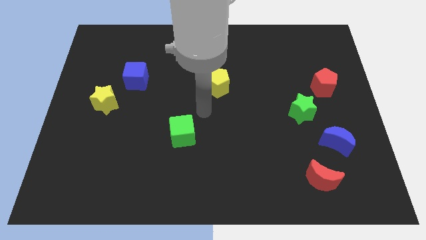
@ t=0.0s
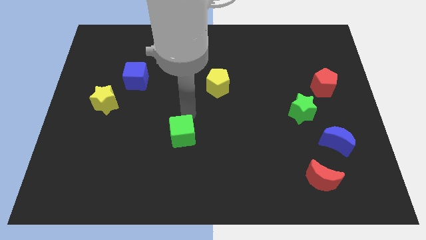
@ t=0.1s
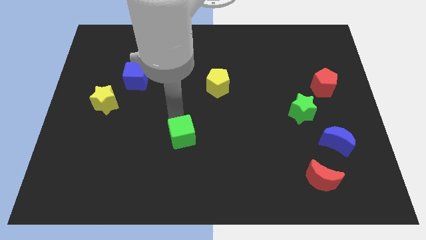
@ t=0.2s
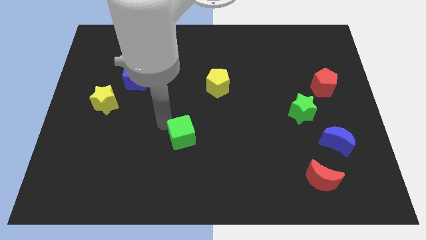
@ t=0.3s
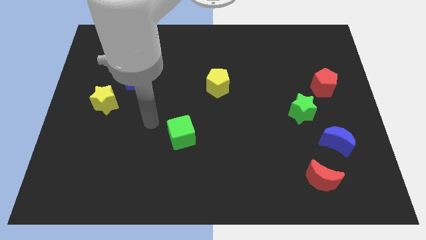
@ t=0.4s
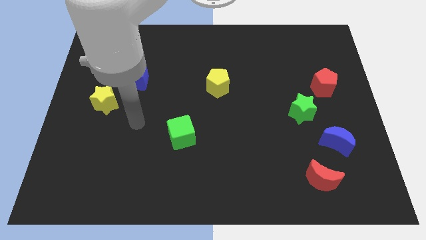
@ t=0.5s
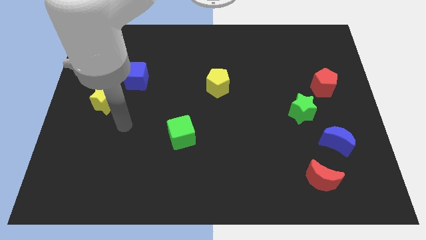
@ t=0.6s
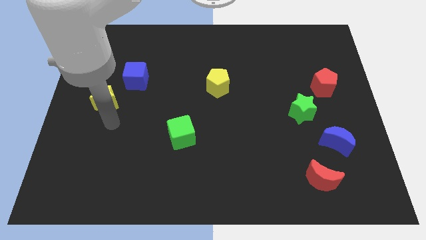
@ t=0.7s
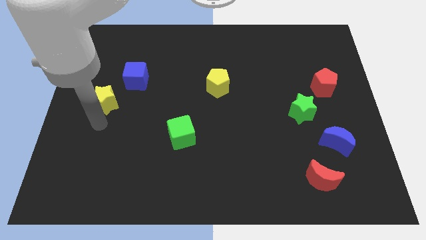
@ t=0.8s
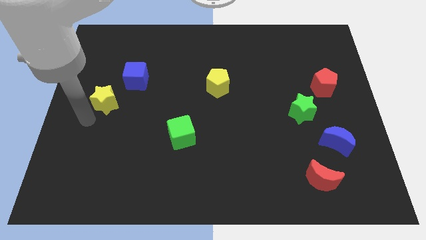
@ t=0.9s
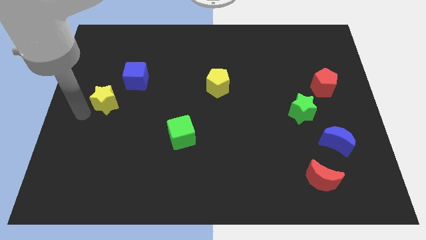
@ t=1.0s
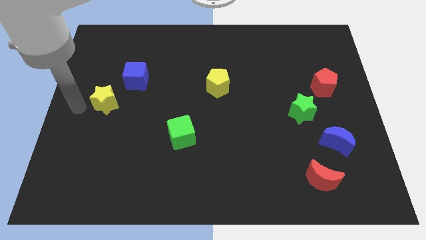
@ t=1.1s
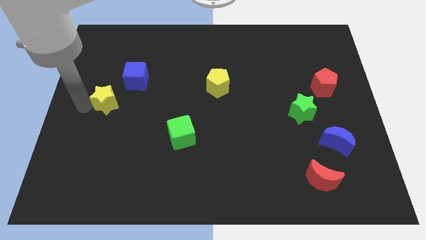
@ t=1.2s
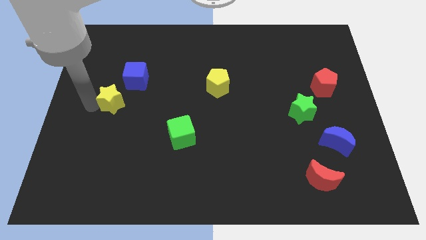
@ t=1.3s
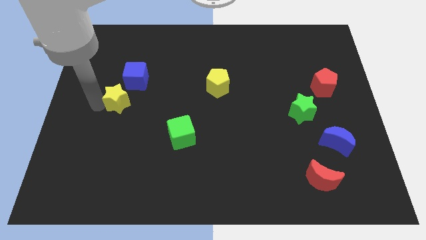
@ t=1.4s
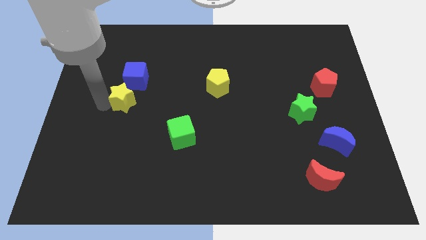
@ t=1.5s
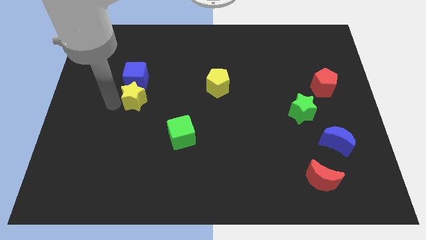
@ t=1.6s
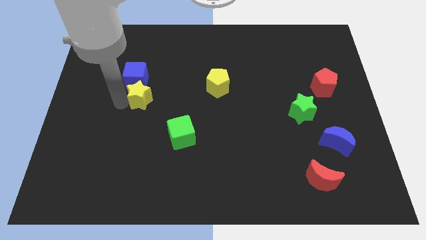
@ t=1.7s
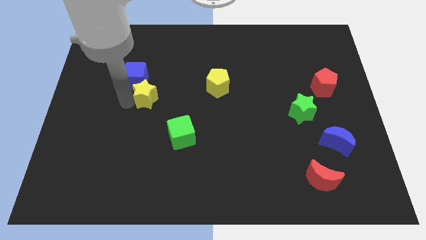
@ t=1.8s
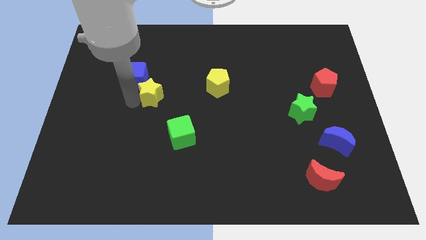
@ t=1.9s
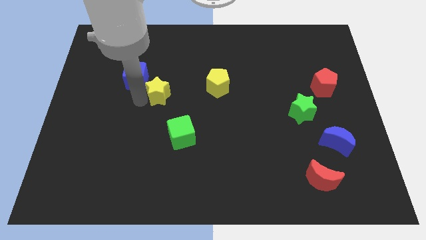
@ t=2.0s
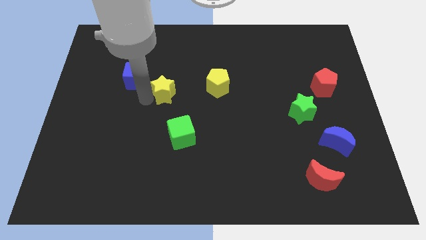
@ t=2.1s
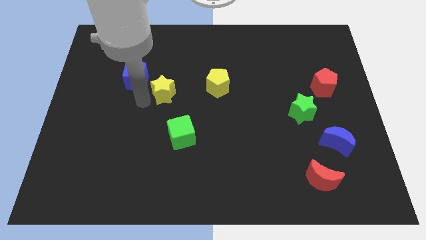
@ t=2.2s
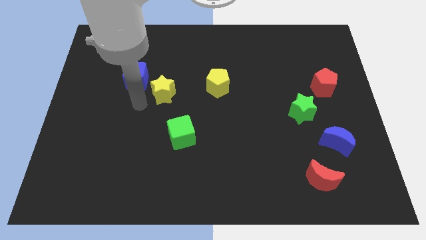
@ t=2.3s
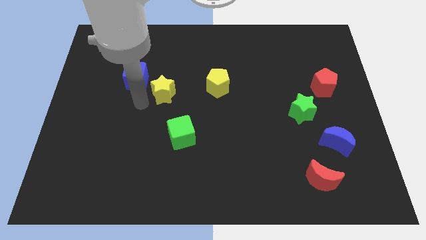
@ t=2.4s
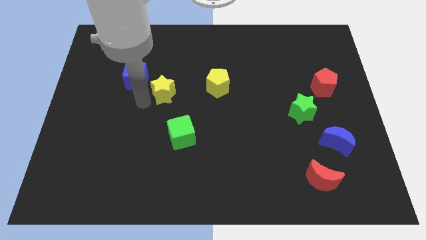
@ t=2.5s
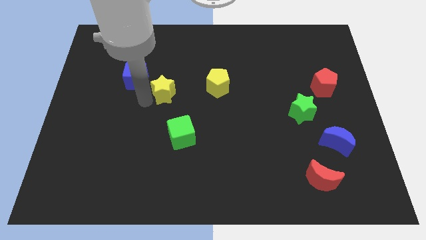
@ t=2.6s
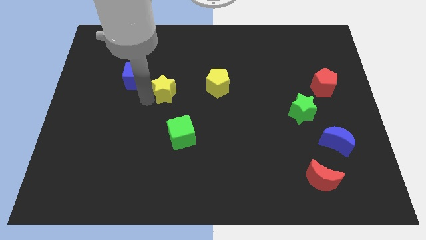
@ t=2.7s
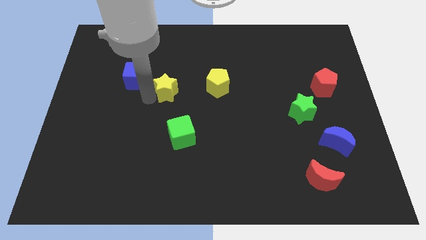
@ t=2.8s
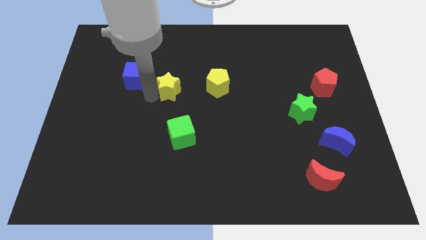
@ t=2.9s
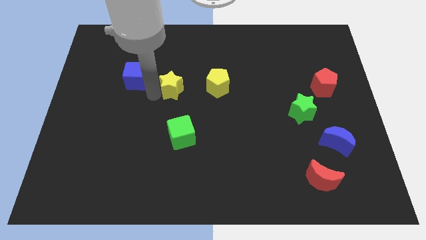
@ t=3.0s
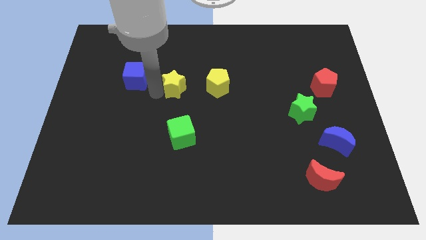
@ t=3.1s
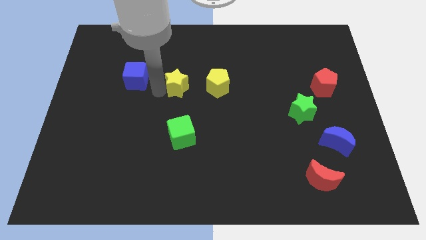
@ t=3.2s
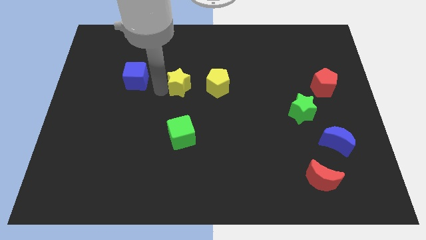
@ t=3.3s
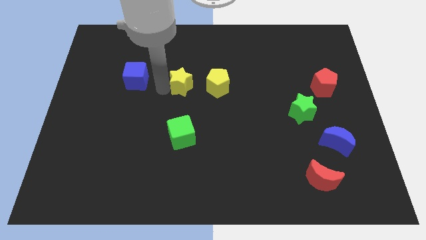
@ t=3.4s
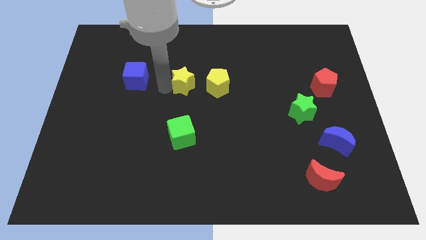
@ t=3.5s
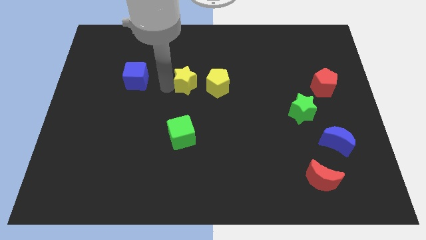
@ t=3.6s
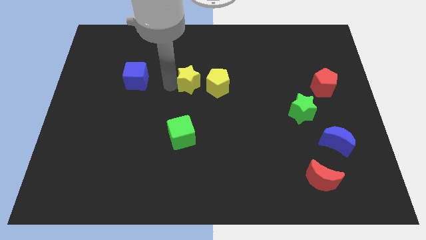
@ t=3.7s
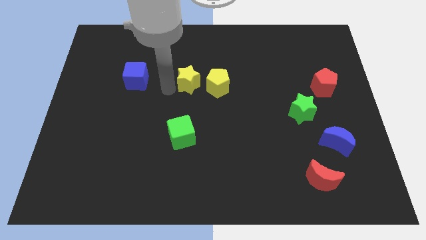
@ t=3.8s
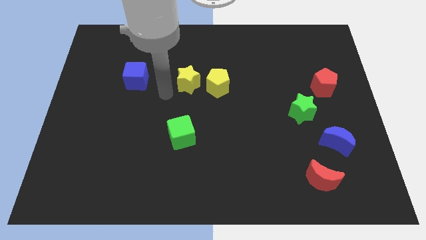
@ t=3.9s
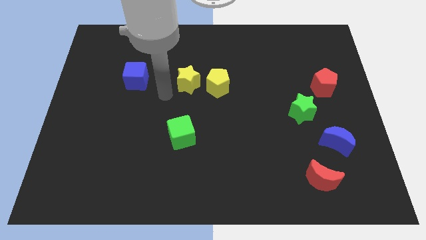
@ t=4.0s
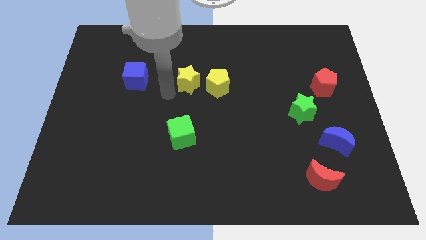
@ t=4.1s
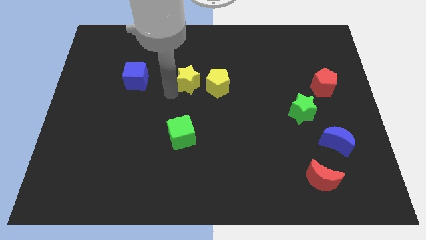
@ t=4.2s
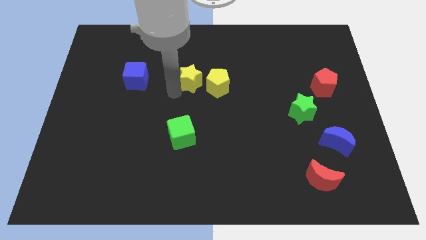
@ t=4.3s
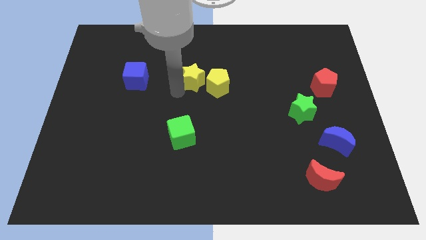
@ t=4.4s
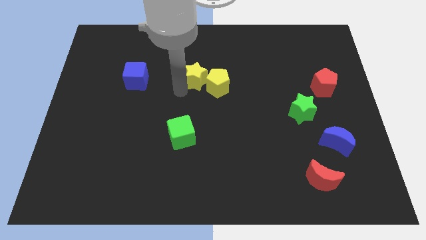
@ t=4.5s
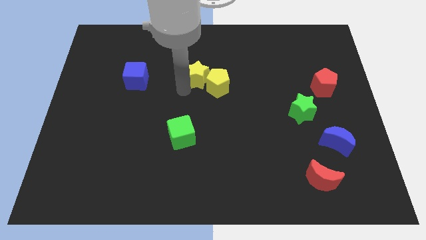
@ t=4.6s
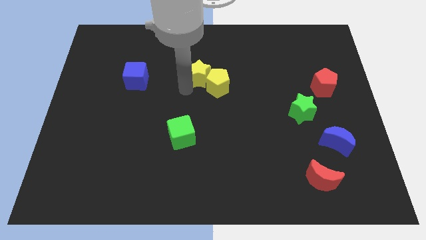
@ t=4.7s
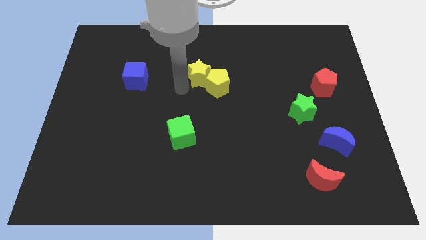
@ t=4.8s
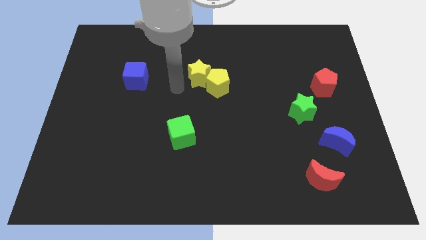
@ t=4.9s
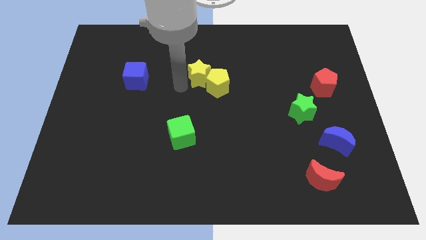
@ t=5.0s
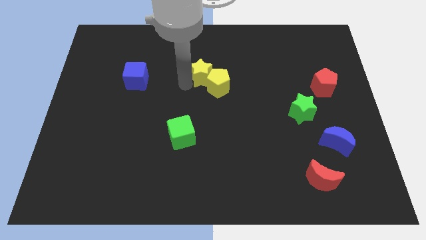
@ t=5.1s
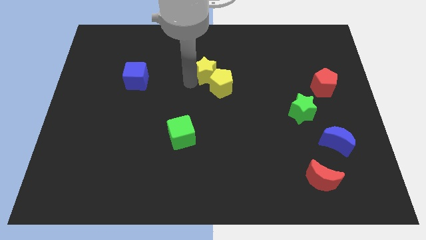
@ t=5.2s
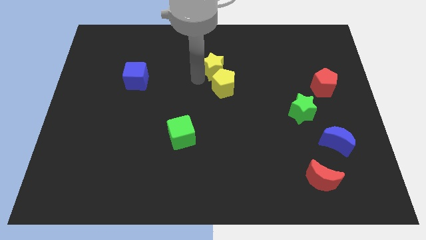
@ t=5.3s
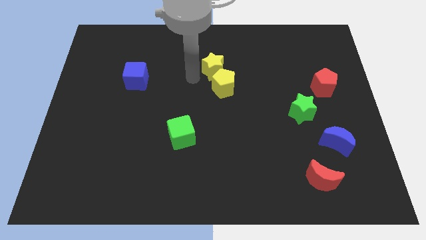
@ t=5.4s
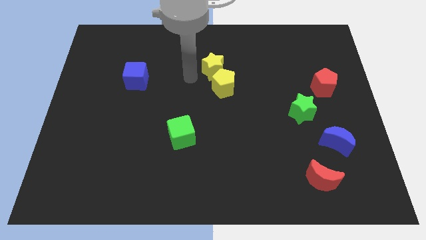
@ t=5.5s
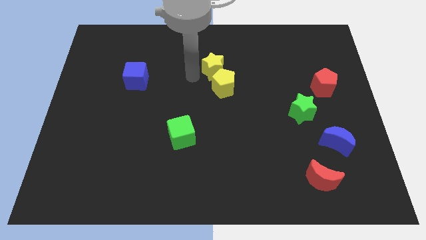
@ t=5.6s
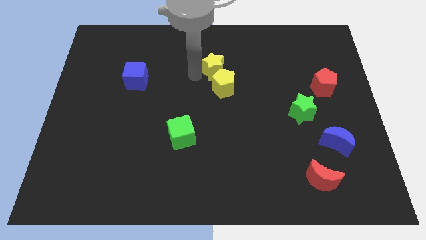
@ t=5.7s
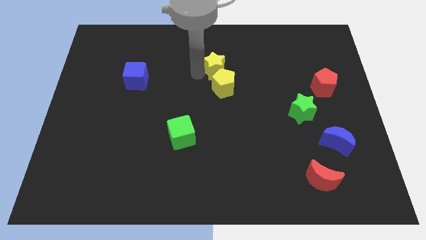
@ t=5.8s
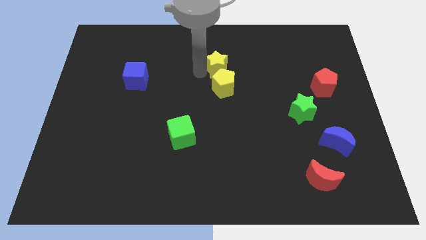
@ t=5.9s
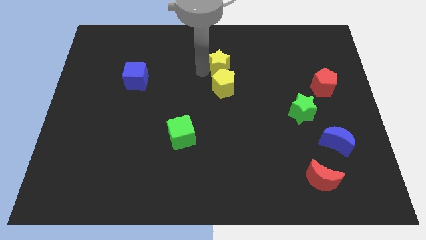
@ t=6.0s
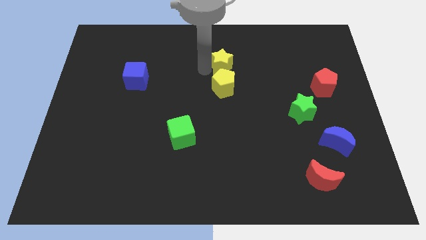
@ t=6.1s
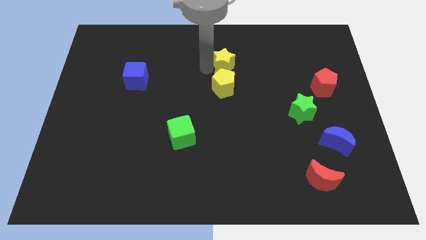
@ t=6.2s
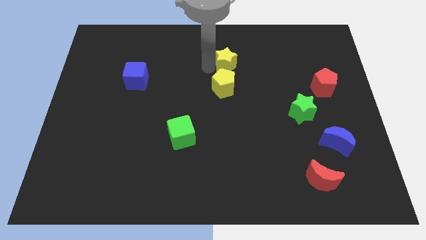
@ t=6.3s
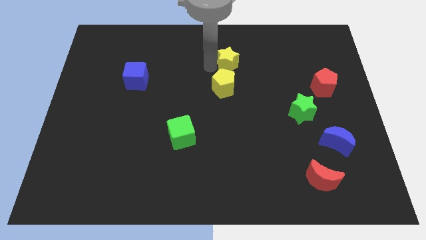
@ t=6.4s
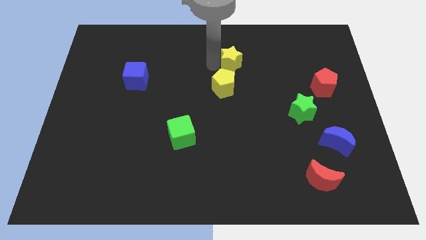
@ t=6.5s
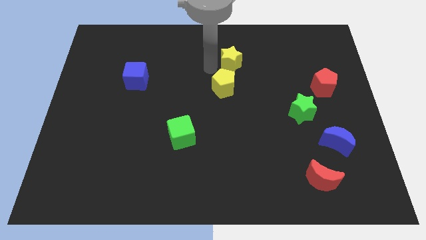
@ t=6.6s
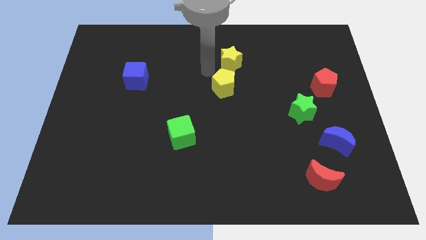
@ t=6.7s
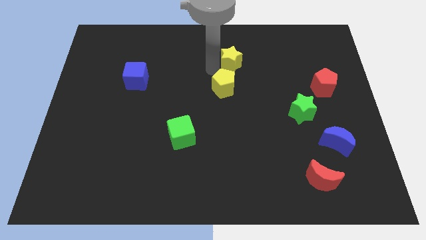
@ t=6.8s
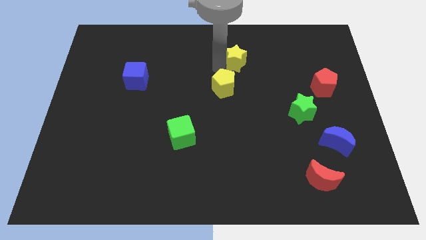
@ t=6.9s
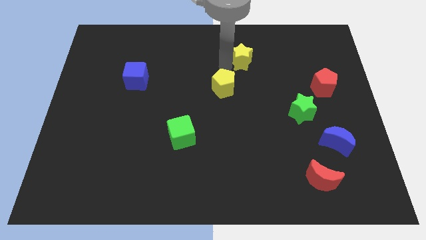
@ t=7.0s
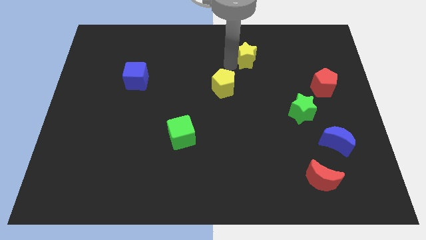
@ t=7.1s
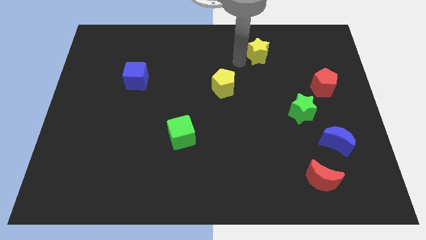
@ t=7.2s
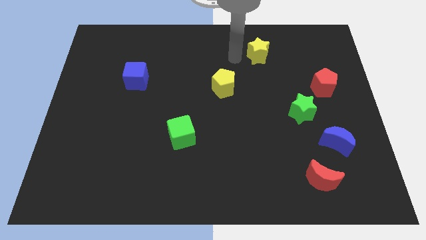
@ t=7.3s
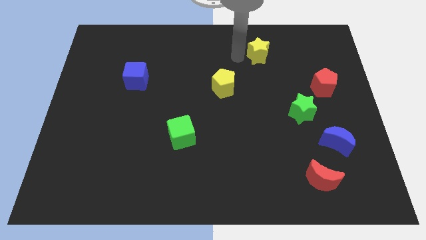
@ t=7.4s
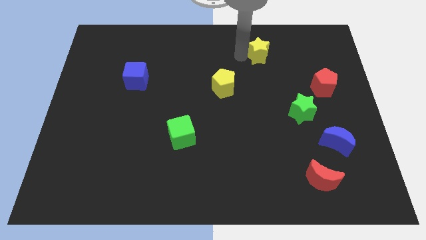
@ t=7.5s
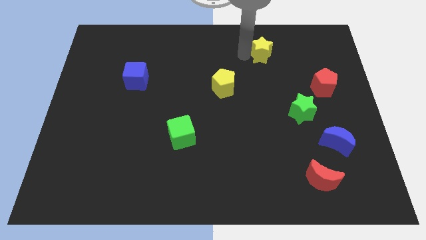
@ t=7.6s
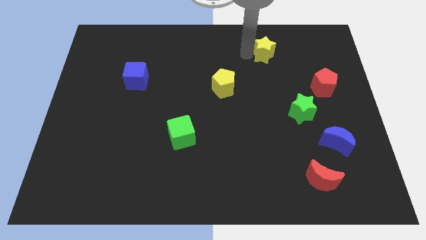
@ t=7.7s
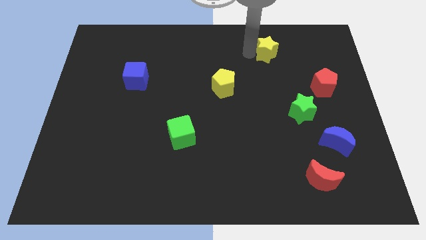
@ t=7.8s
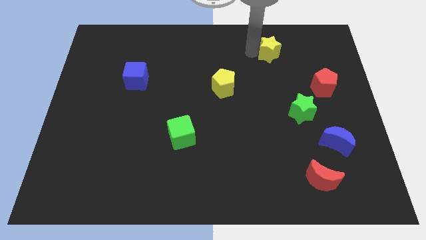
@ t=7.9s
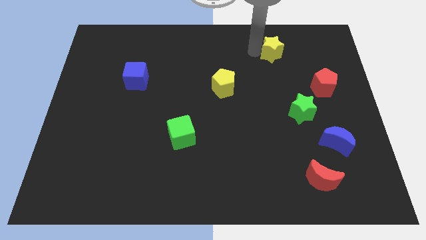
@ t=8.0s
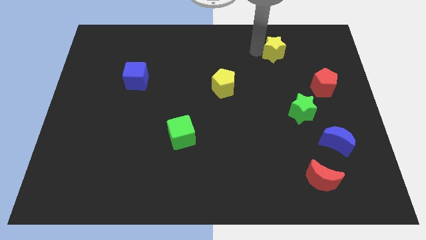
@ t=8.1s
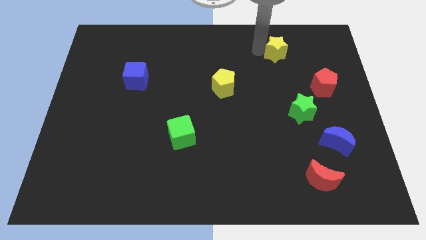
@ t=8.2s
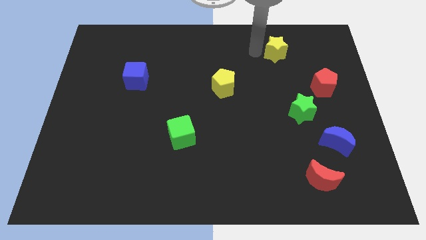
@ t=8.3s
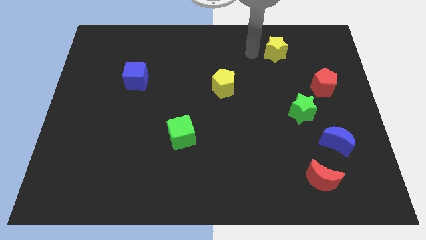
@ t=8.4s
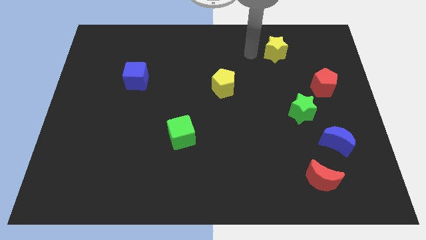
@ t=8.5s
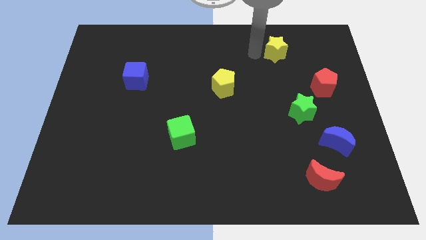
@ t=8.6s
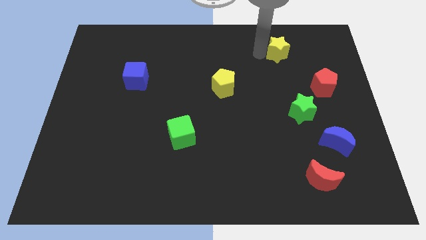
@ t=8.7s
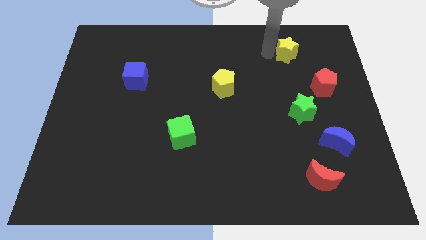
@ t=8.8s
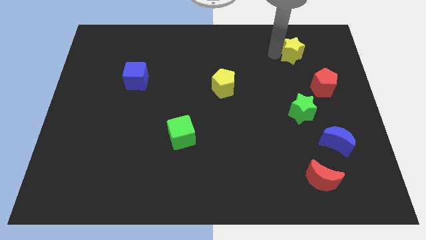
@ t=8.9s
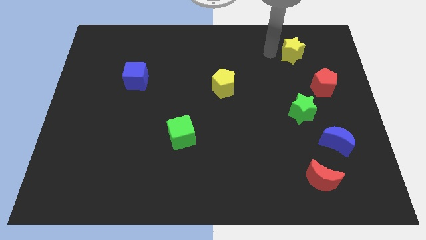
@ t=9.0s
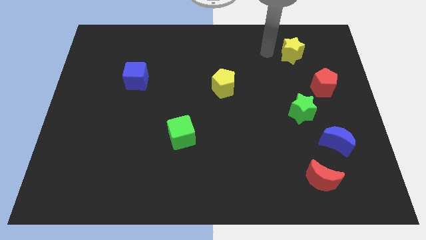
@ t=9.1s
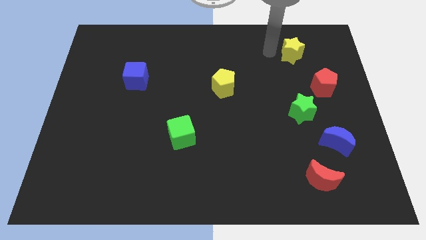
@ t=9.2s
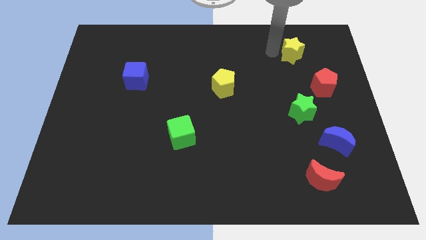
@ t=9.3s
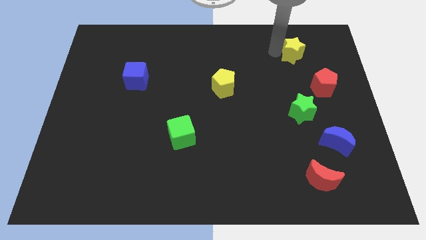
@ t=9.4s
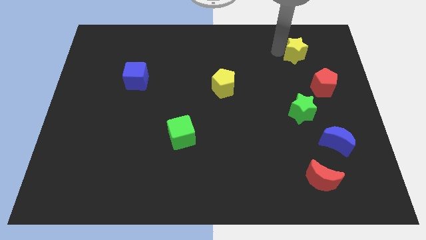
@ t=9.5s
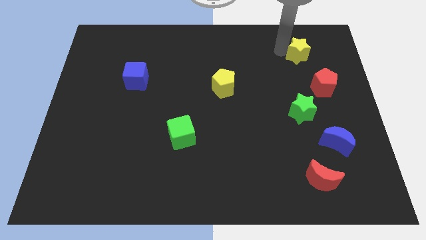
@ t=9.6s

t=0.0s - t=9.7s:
push the yellow star above the red pentagon
